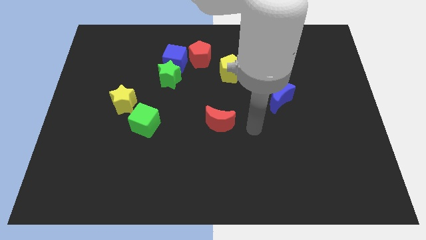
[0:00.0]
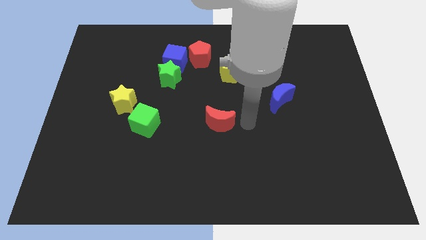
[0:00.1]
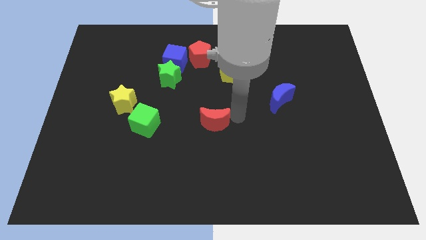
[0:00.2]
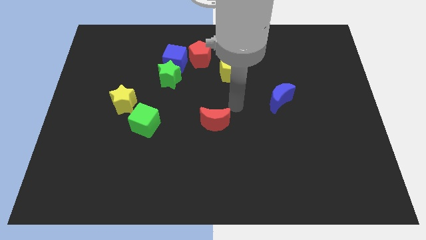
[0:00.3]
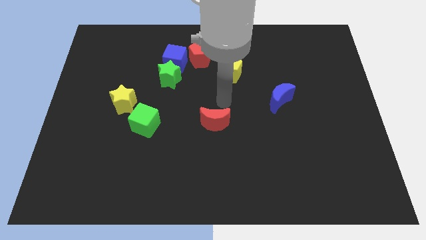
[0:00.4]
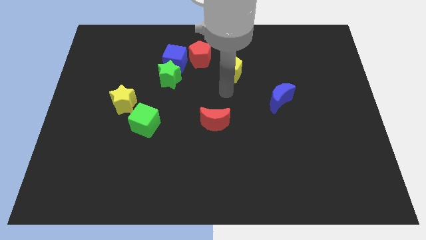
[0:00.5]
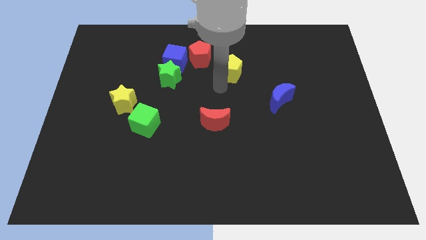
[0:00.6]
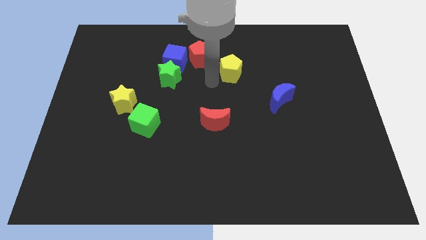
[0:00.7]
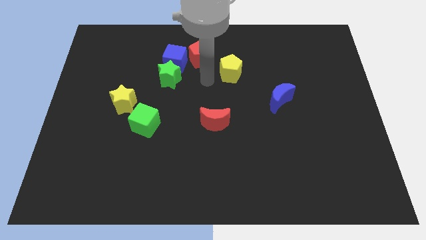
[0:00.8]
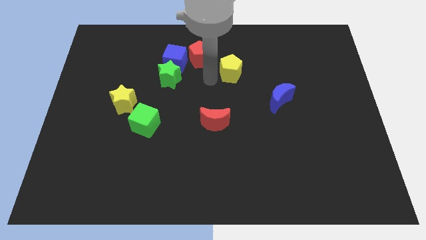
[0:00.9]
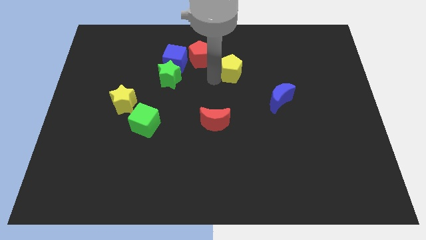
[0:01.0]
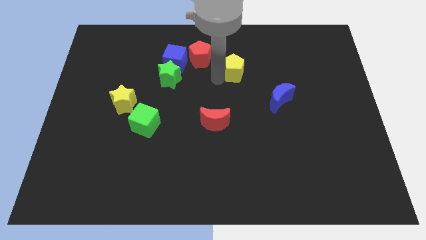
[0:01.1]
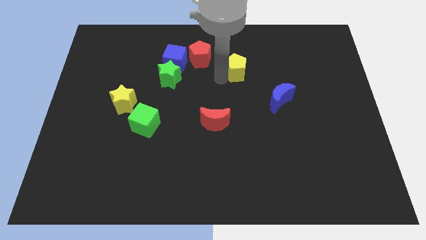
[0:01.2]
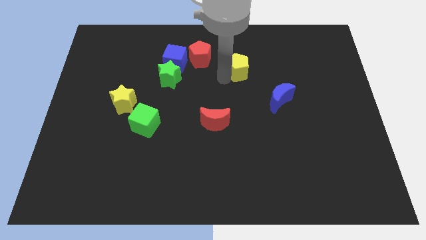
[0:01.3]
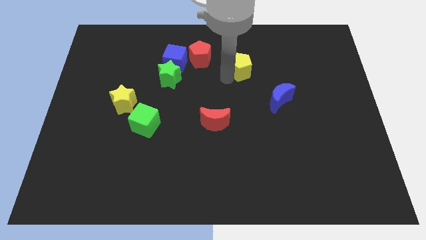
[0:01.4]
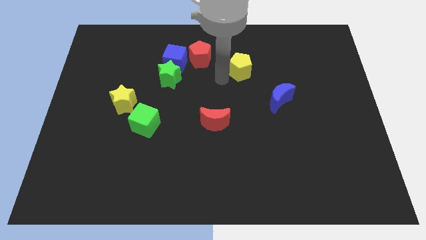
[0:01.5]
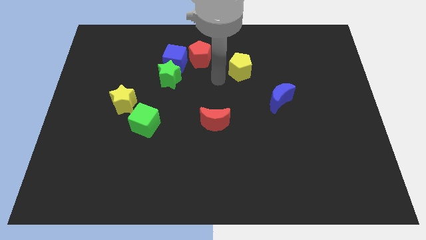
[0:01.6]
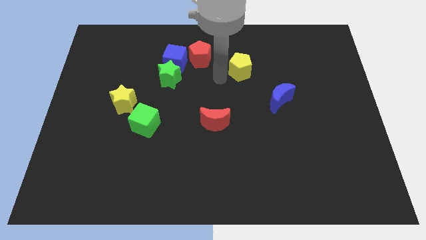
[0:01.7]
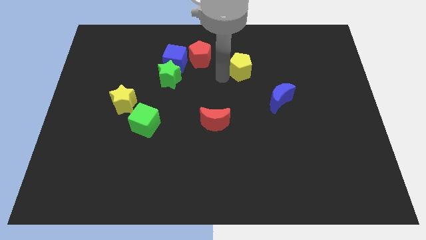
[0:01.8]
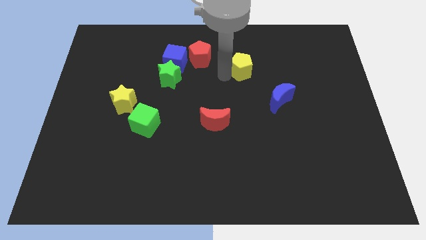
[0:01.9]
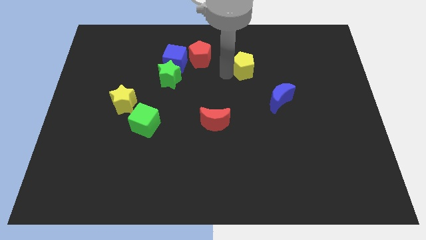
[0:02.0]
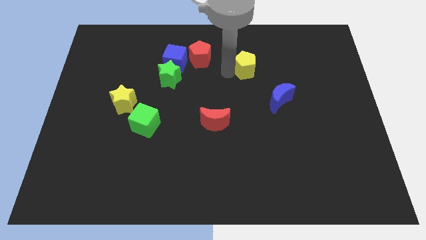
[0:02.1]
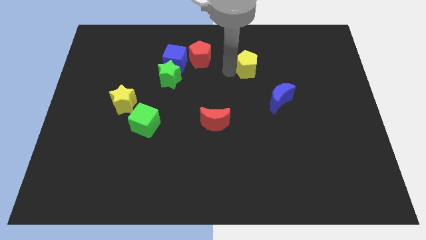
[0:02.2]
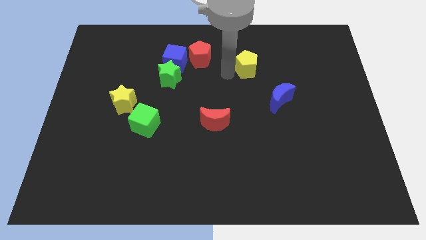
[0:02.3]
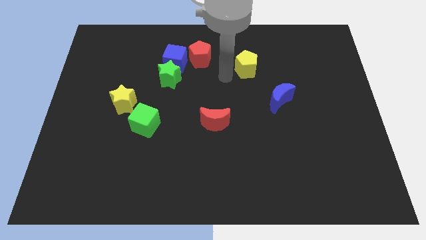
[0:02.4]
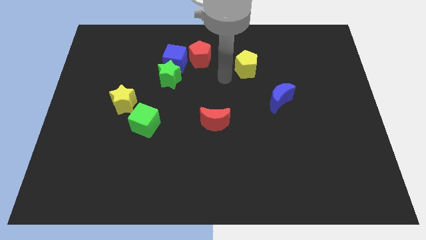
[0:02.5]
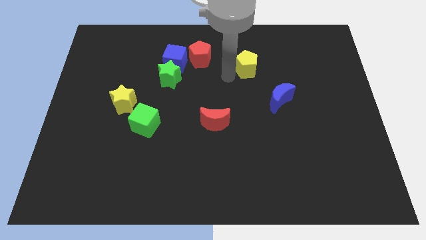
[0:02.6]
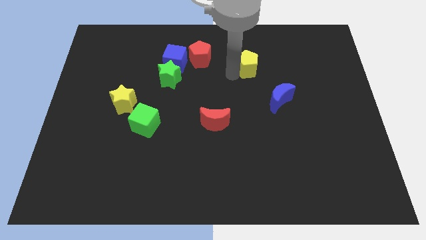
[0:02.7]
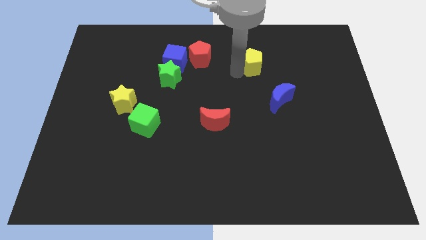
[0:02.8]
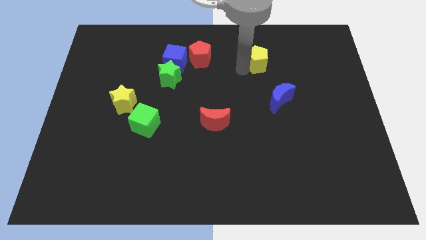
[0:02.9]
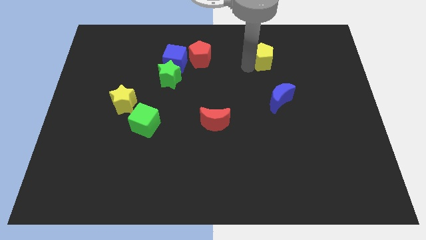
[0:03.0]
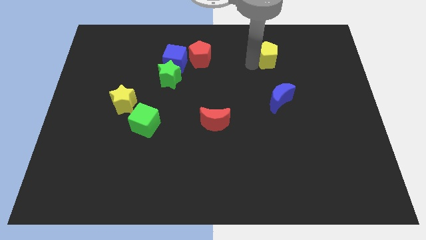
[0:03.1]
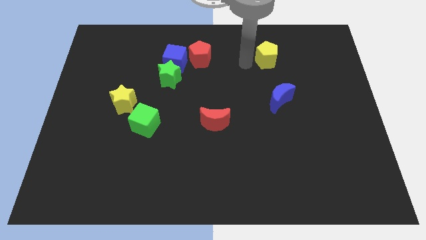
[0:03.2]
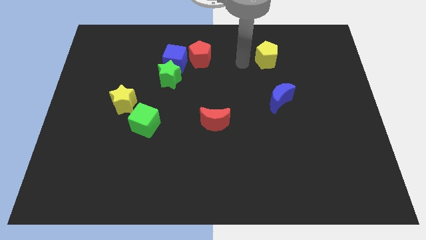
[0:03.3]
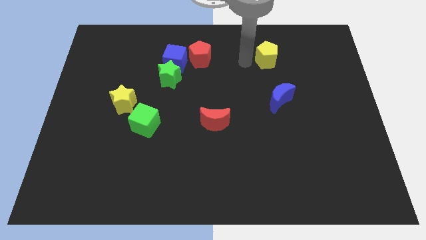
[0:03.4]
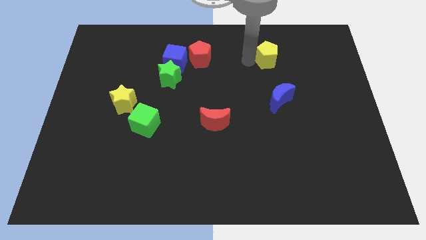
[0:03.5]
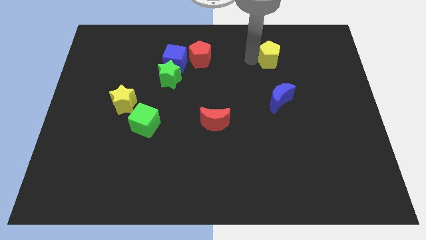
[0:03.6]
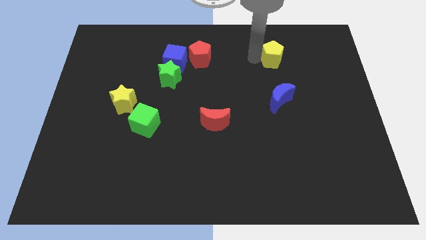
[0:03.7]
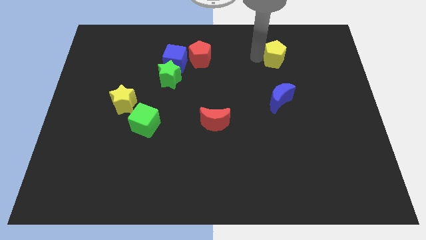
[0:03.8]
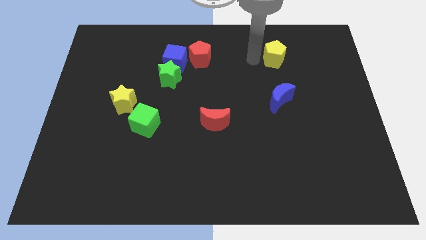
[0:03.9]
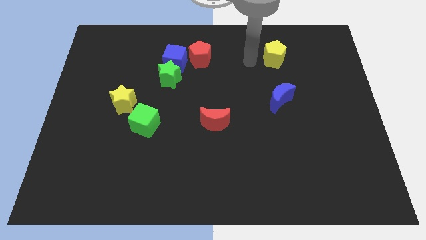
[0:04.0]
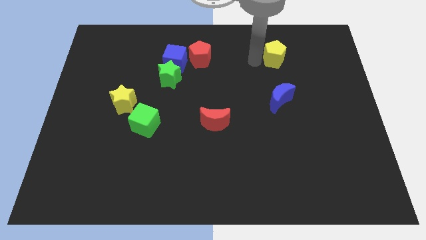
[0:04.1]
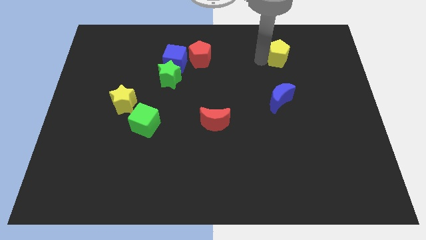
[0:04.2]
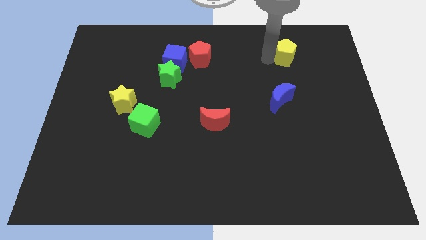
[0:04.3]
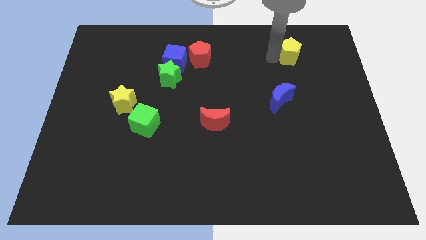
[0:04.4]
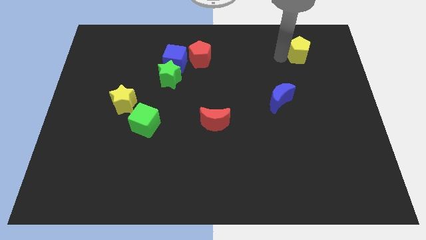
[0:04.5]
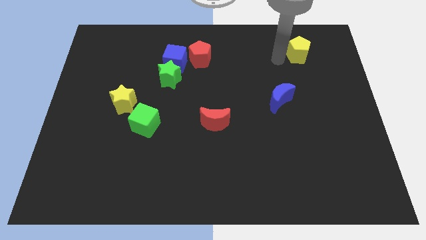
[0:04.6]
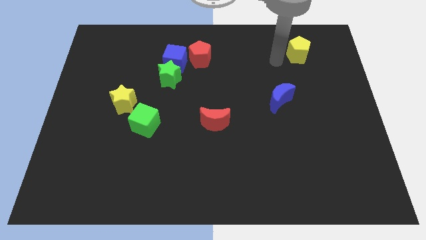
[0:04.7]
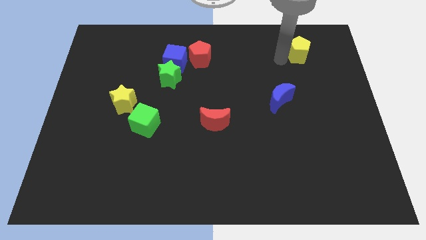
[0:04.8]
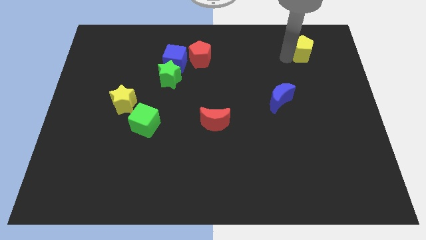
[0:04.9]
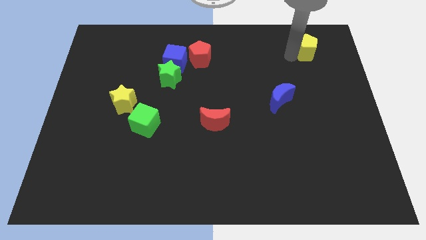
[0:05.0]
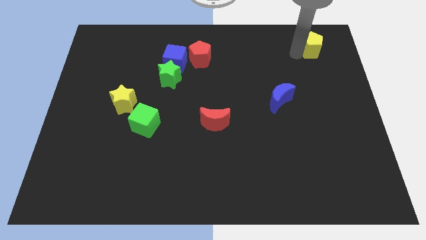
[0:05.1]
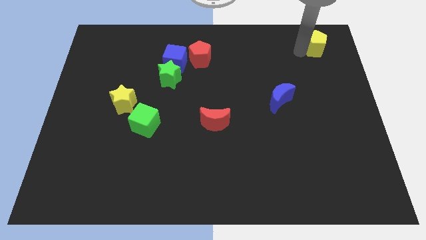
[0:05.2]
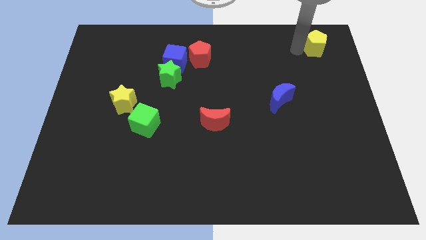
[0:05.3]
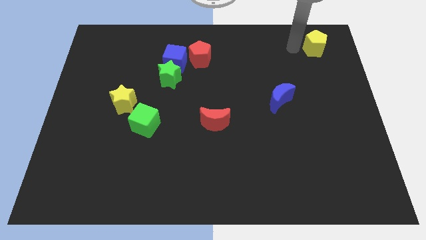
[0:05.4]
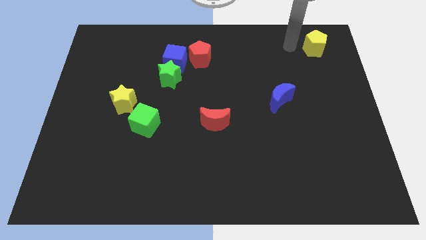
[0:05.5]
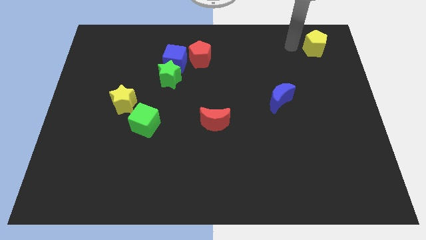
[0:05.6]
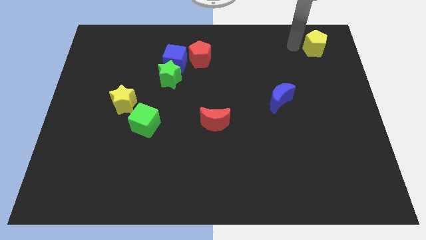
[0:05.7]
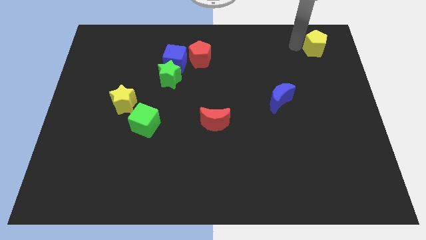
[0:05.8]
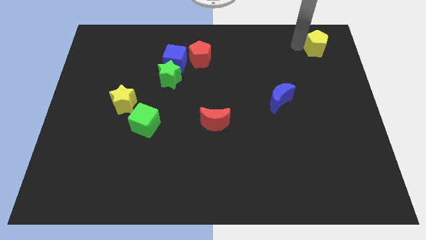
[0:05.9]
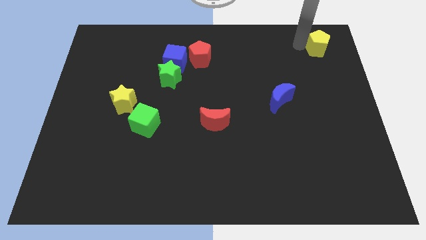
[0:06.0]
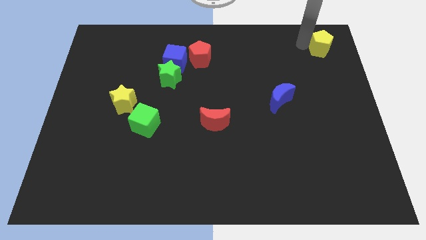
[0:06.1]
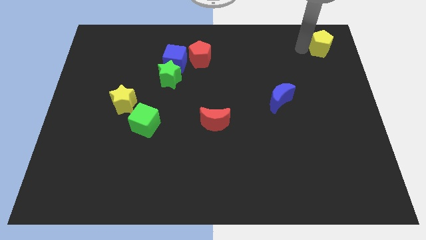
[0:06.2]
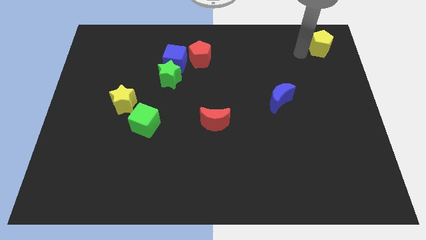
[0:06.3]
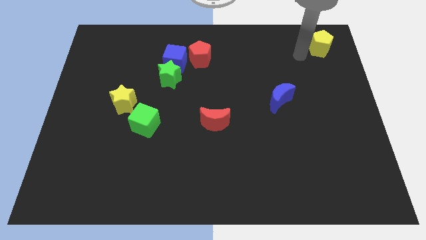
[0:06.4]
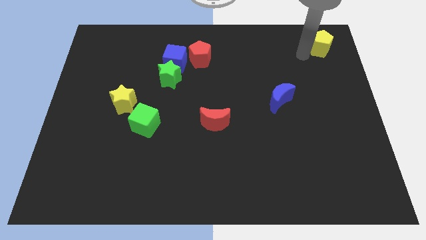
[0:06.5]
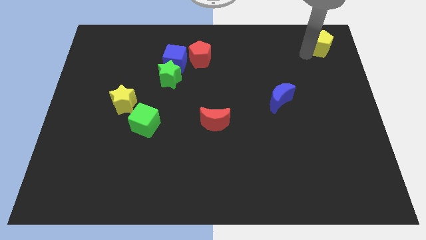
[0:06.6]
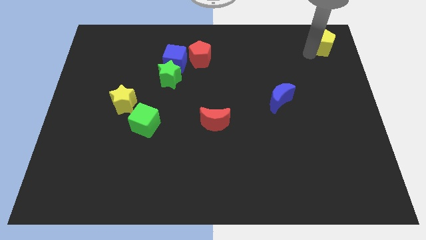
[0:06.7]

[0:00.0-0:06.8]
slide the yellow pentagon to the top right of the board
